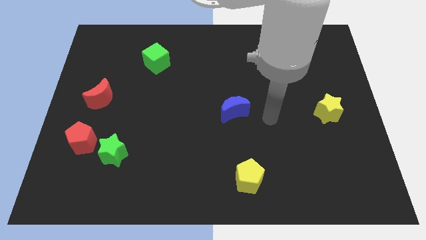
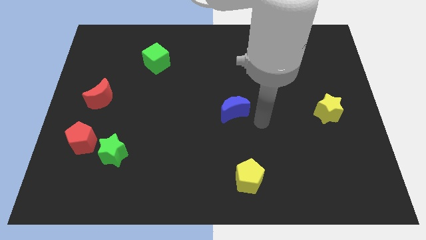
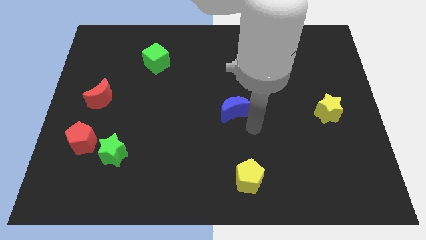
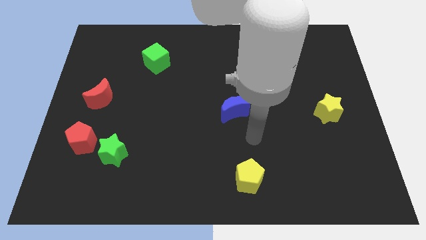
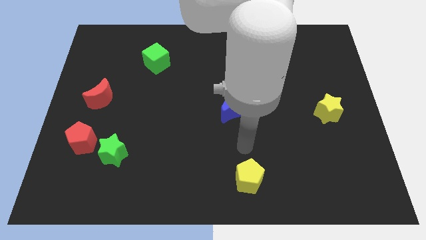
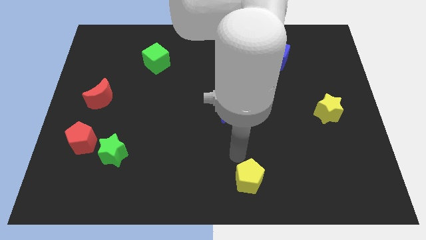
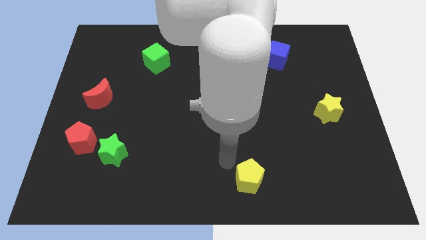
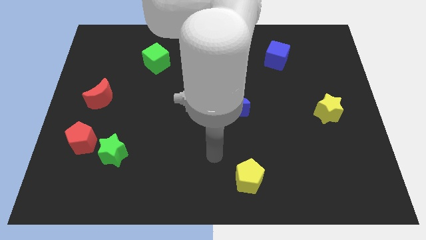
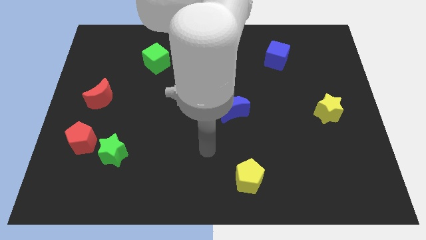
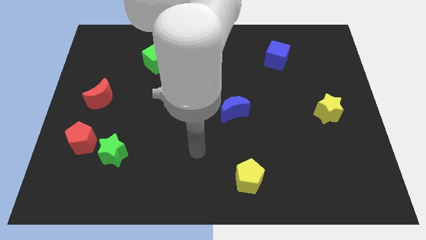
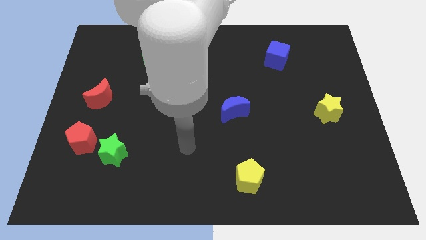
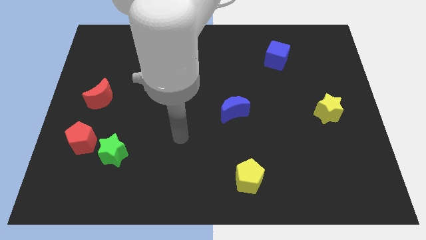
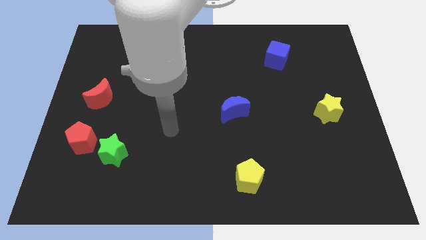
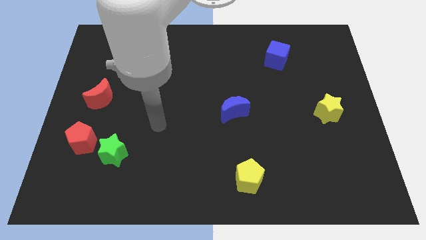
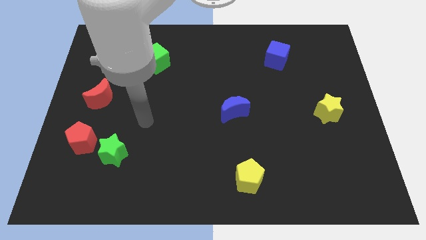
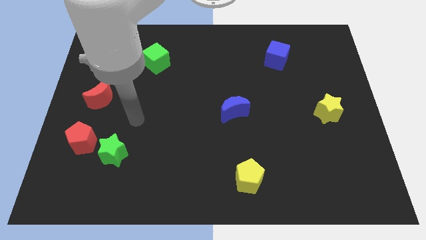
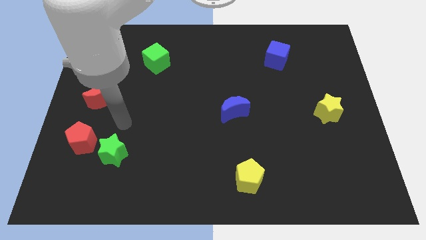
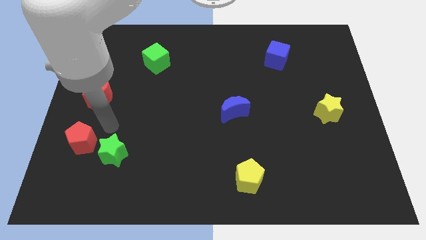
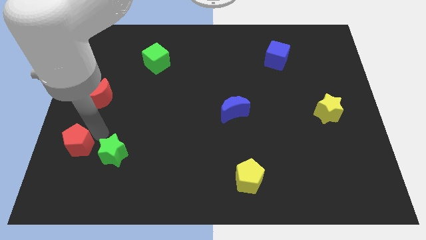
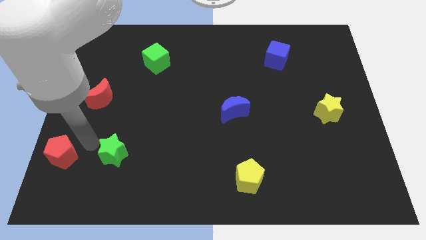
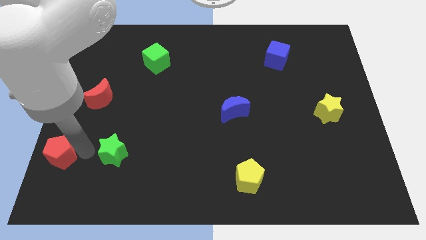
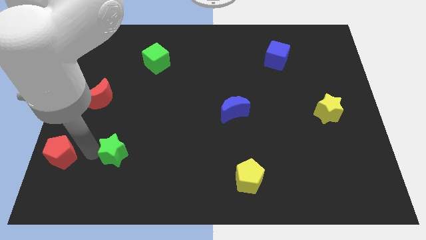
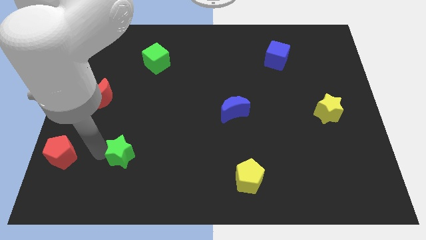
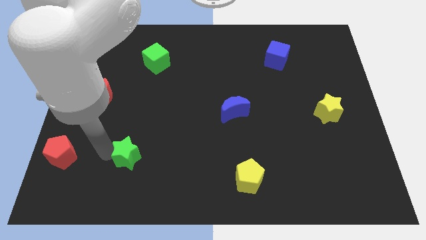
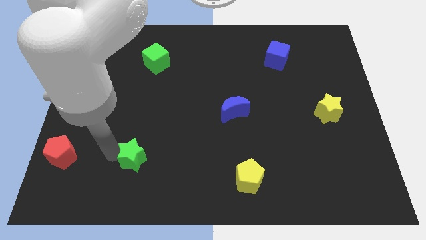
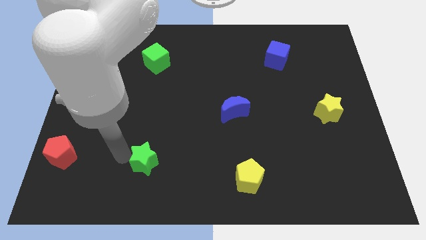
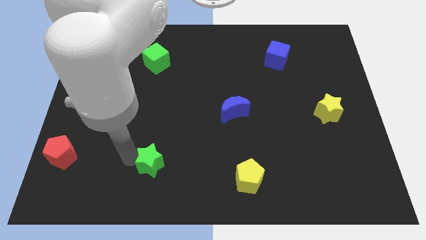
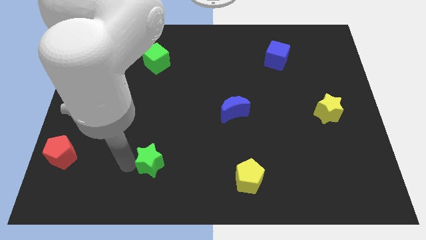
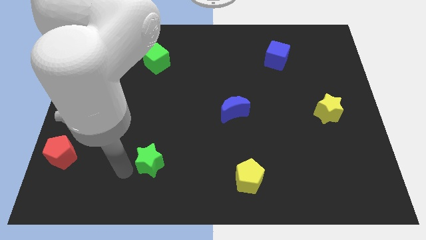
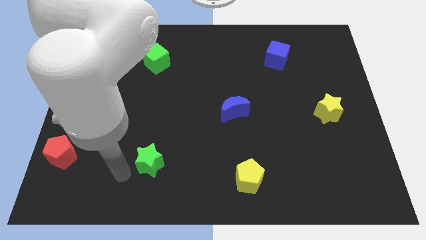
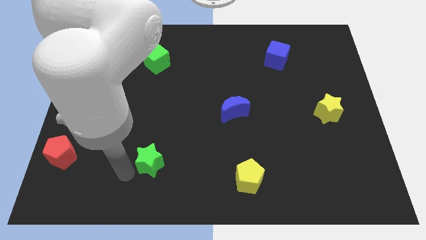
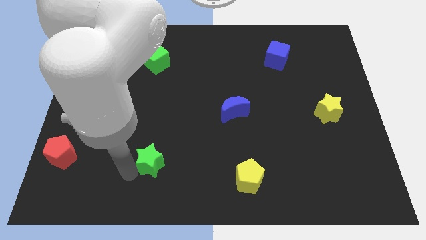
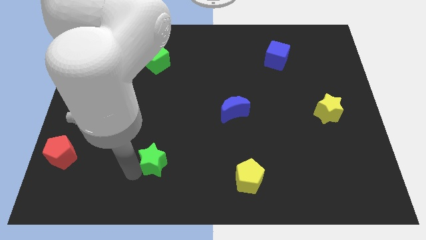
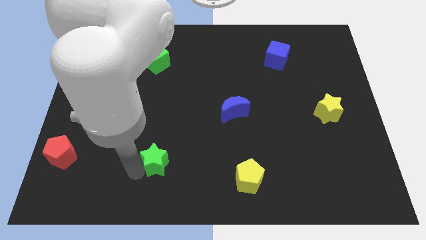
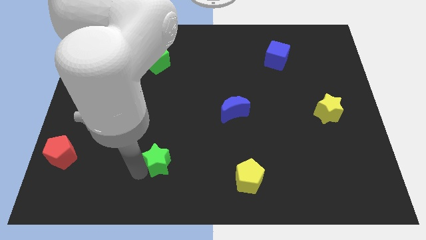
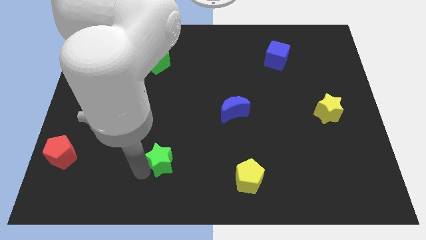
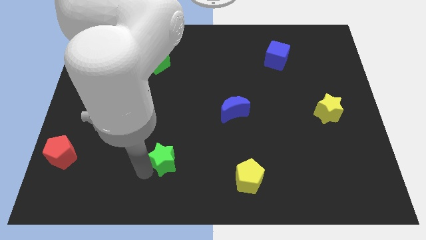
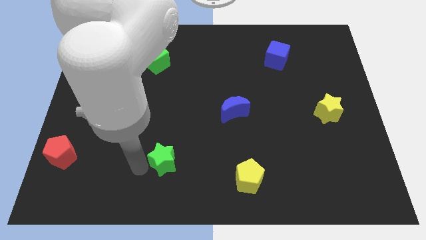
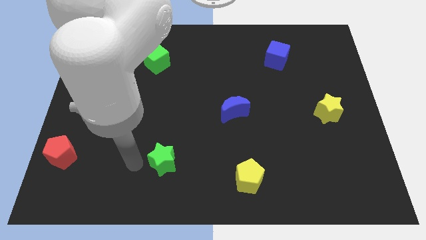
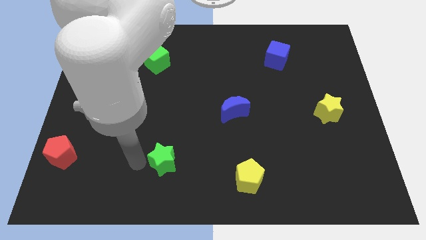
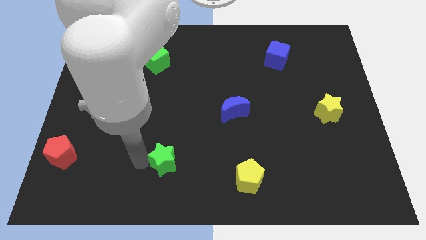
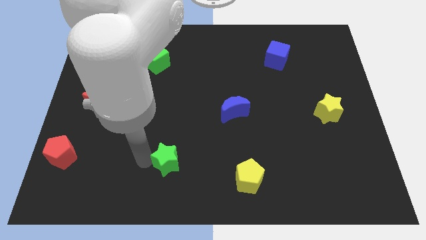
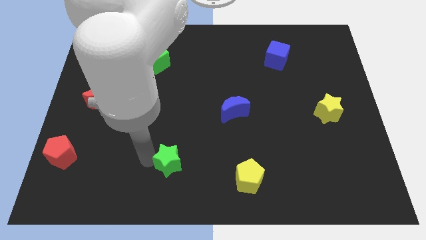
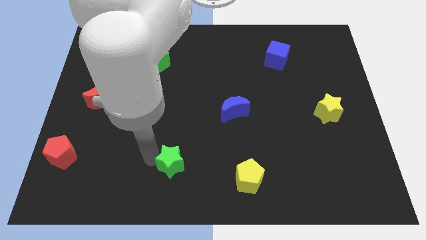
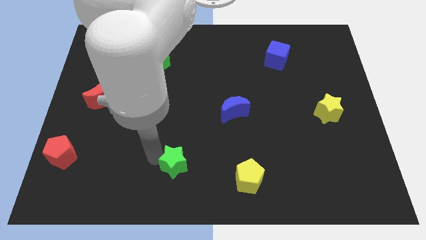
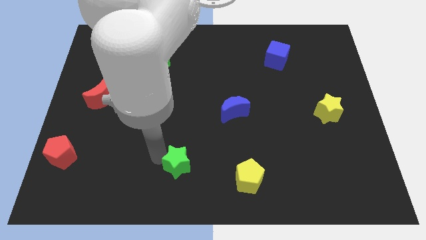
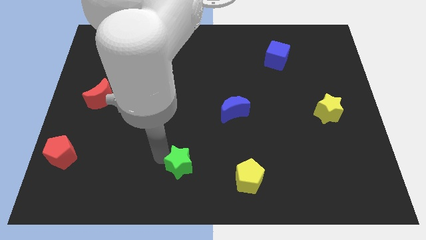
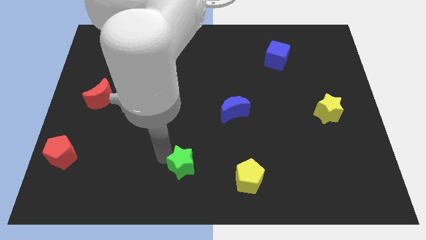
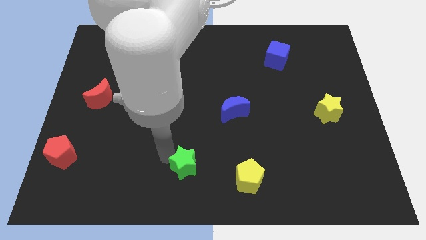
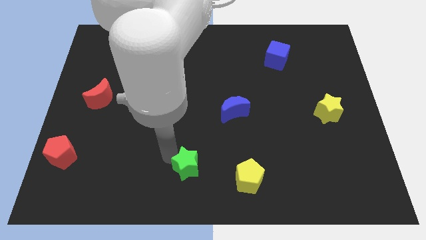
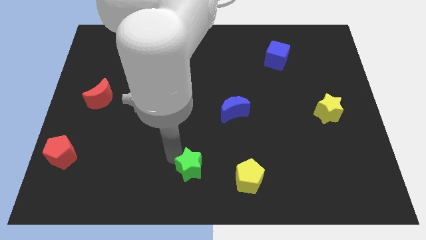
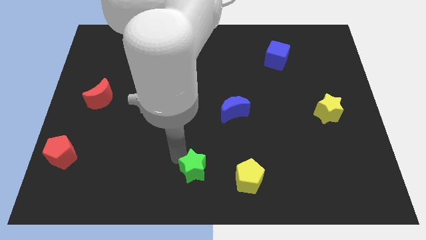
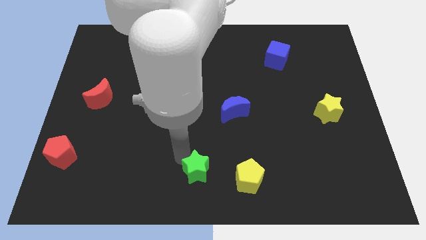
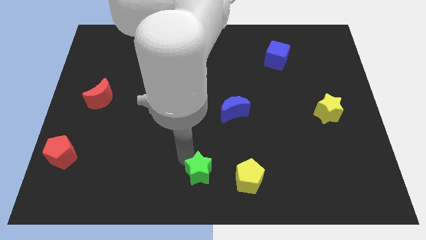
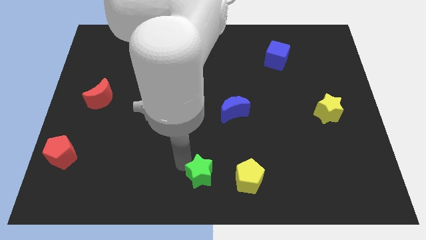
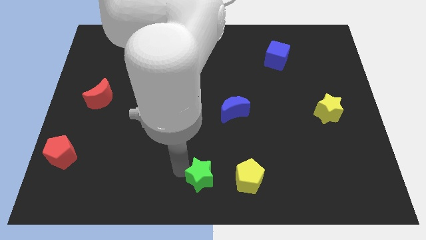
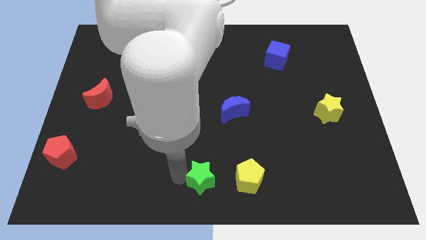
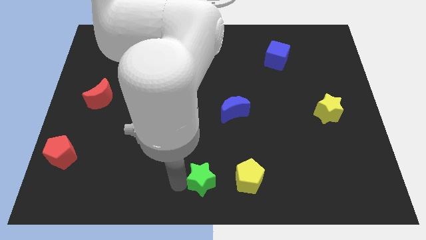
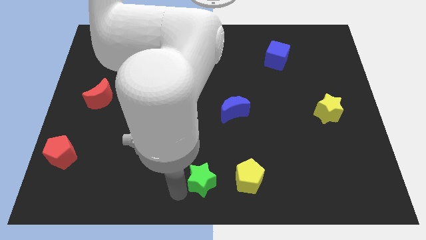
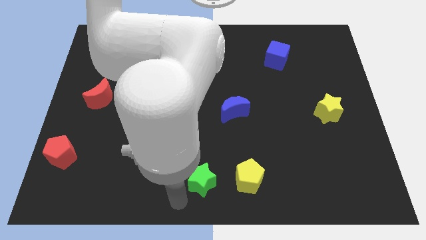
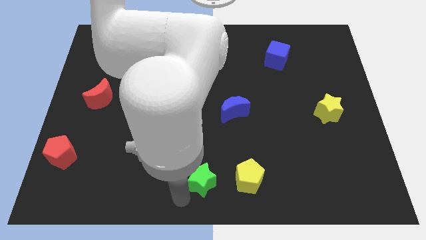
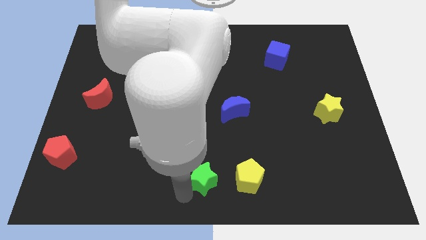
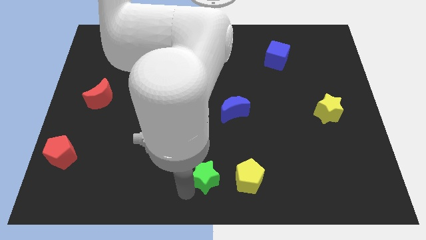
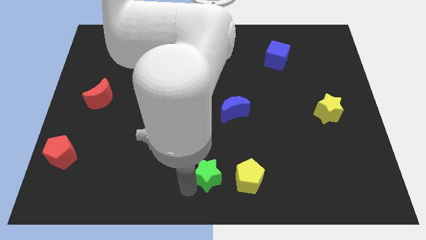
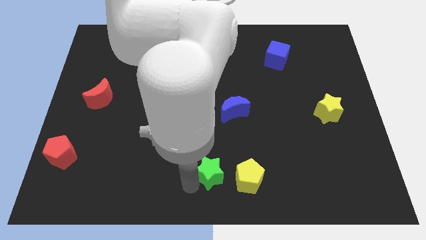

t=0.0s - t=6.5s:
move the green star to the right

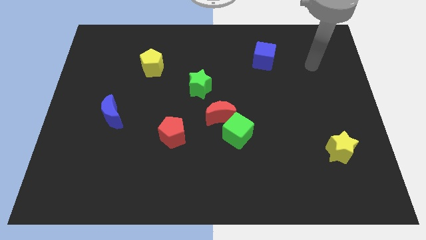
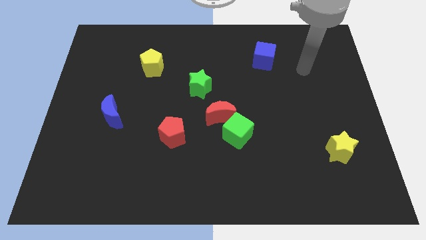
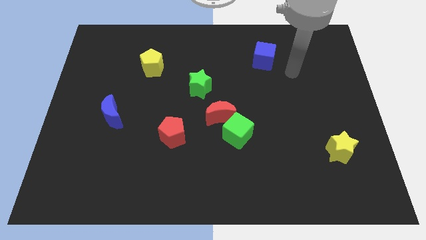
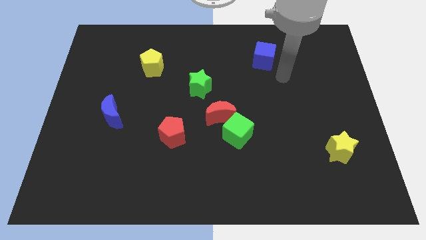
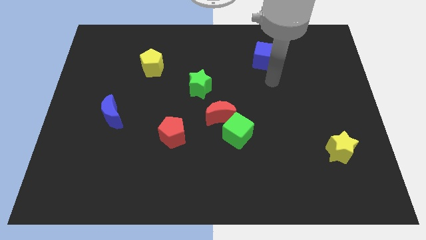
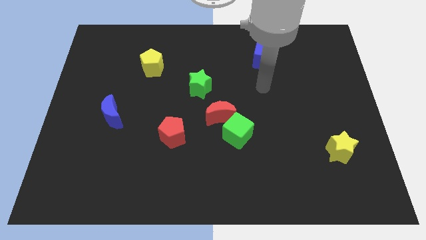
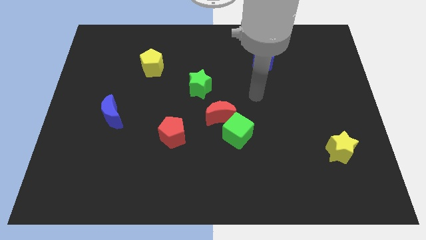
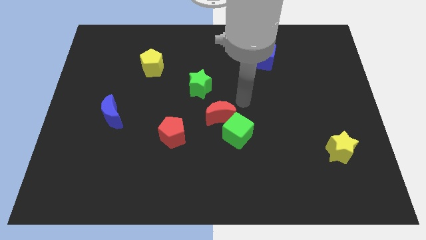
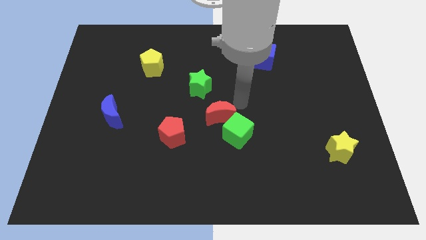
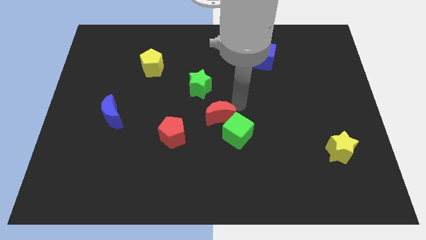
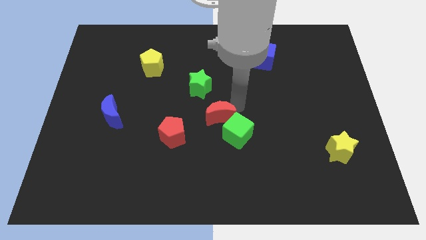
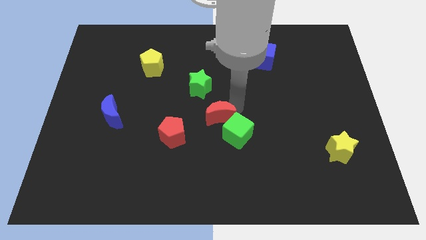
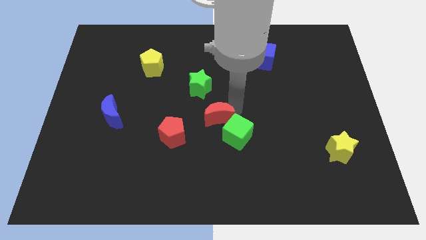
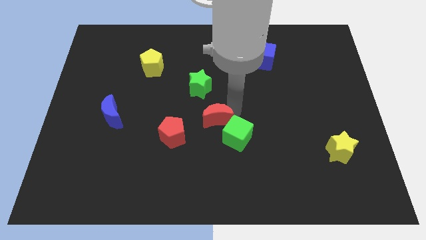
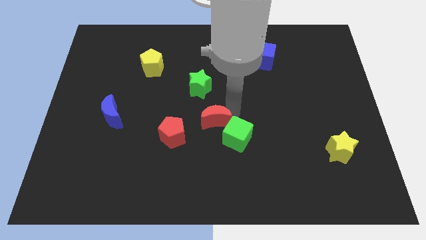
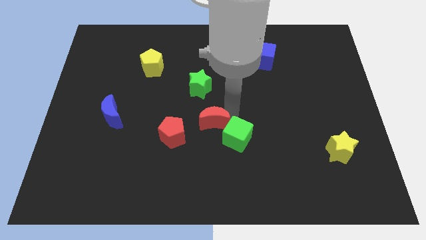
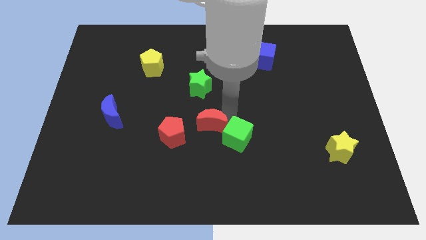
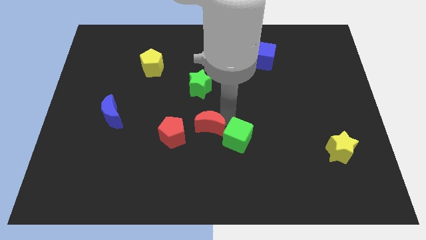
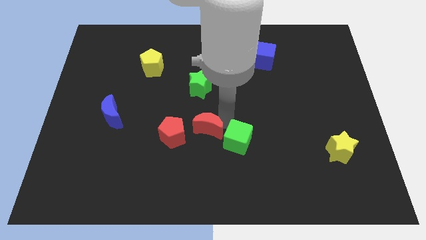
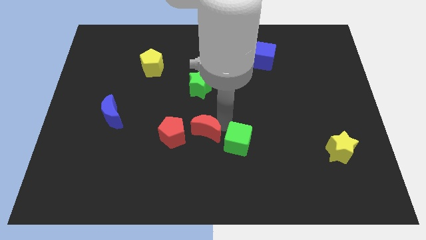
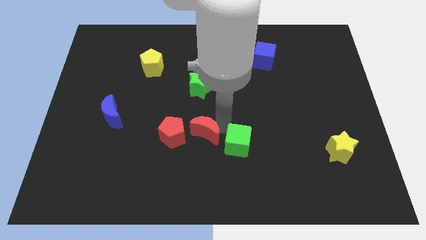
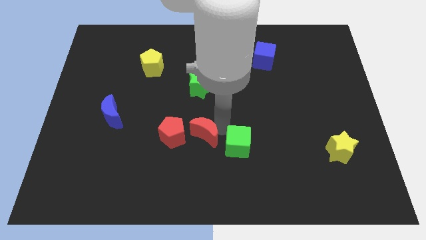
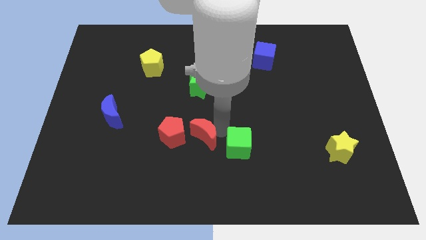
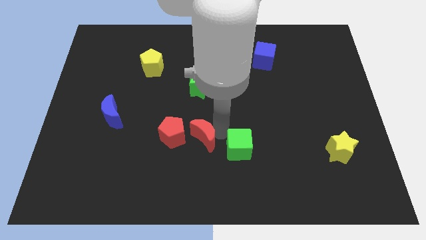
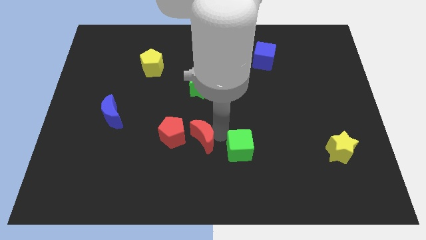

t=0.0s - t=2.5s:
slightly push the red moon downwards and left
